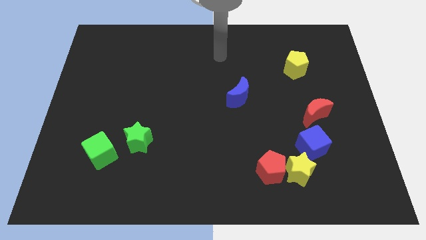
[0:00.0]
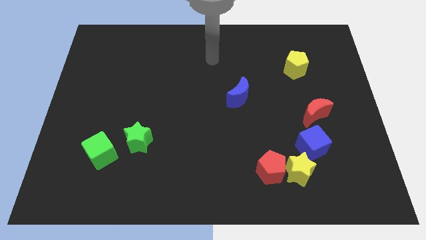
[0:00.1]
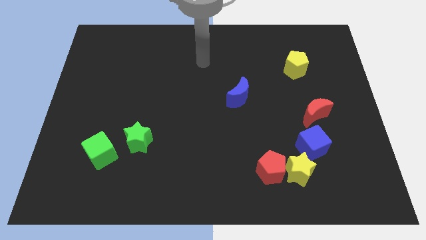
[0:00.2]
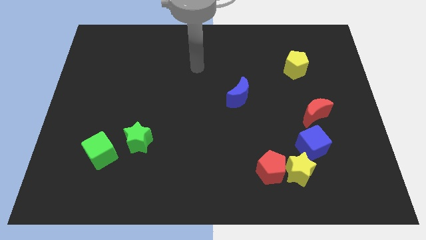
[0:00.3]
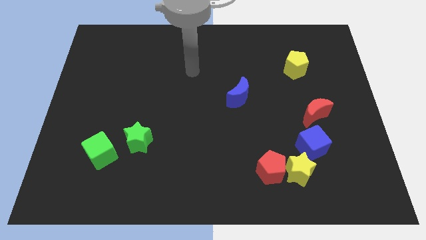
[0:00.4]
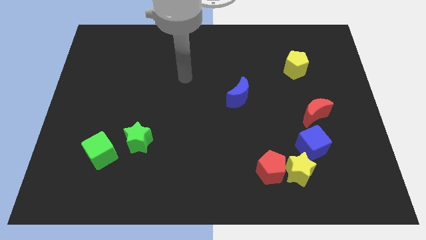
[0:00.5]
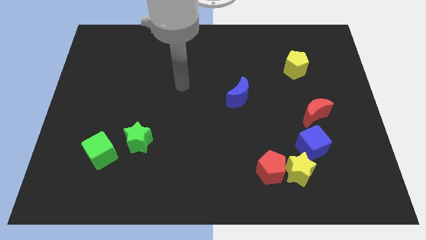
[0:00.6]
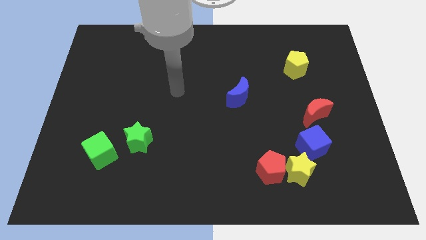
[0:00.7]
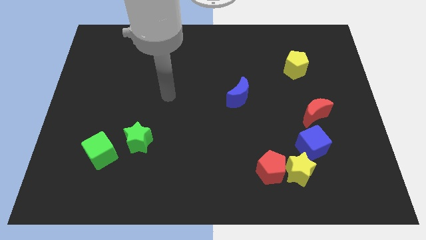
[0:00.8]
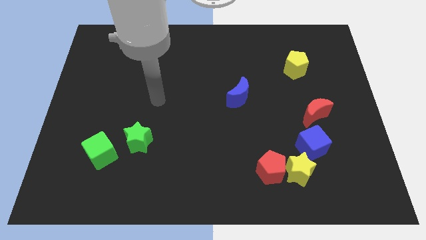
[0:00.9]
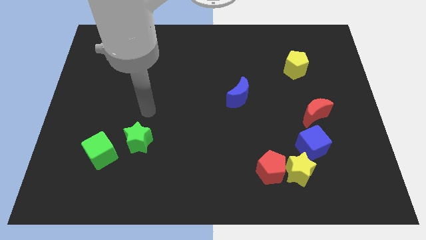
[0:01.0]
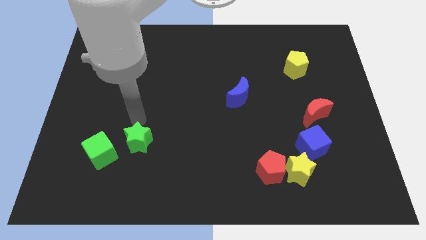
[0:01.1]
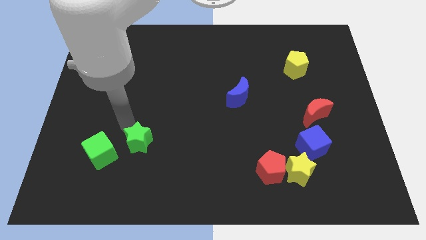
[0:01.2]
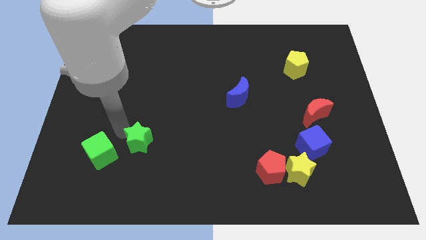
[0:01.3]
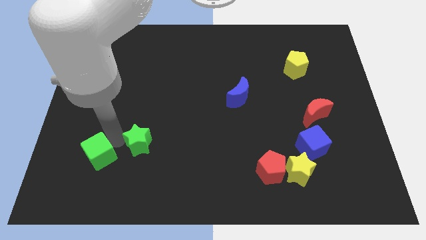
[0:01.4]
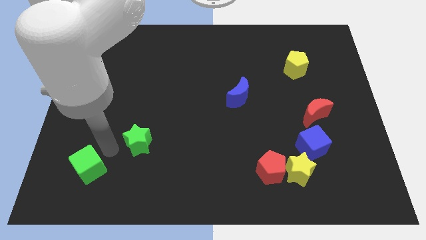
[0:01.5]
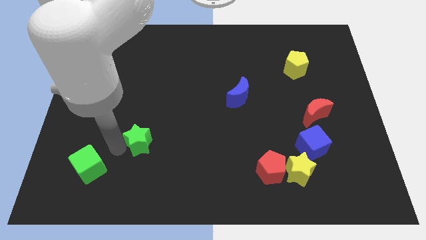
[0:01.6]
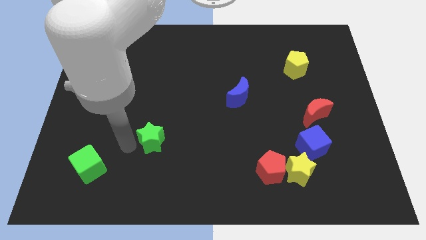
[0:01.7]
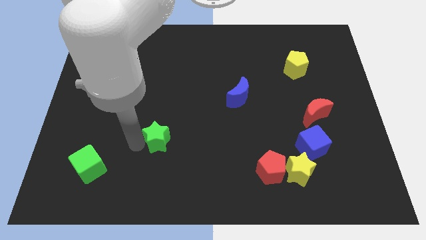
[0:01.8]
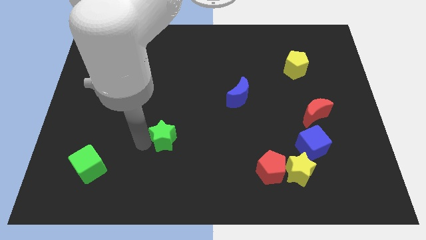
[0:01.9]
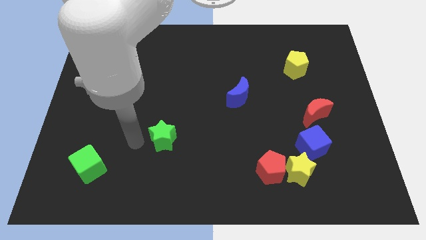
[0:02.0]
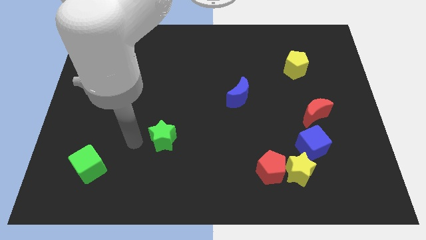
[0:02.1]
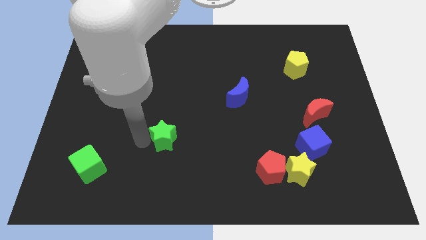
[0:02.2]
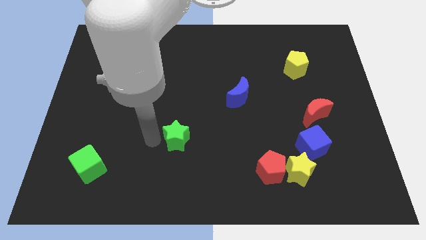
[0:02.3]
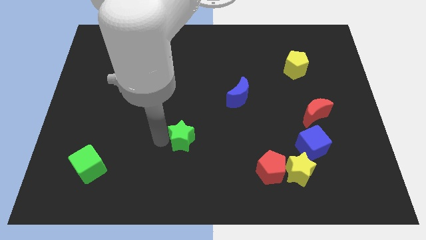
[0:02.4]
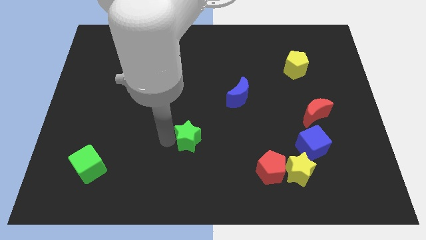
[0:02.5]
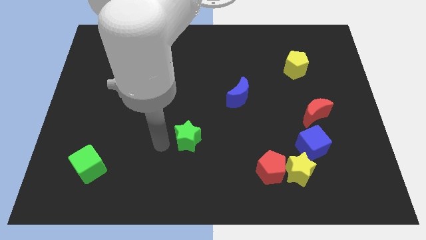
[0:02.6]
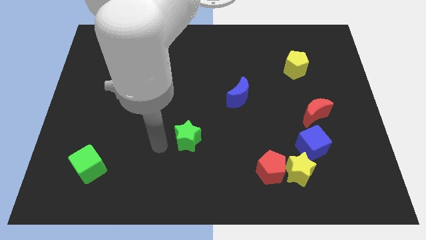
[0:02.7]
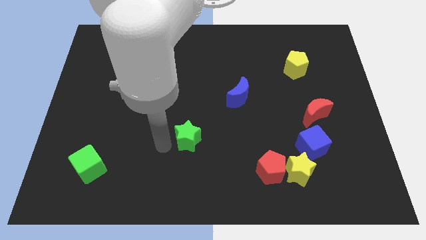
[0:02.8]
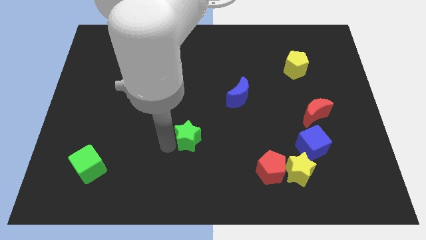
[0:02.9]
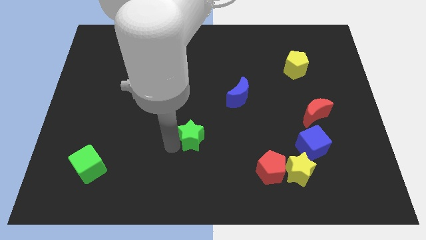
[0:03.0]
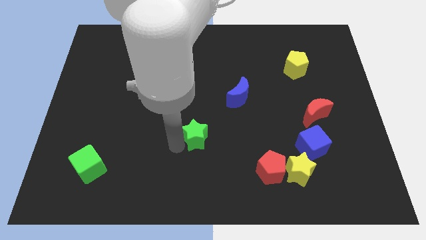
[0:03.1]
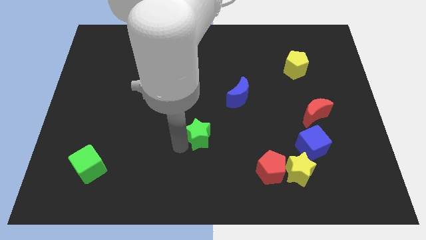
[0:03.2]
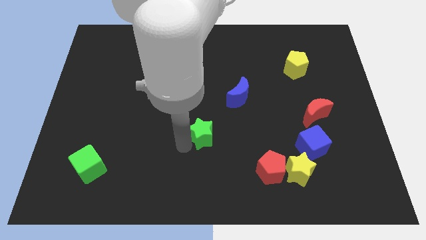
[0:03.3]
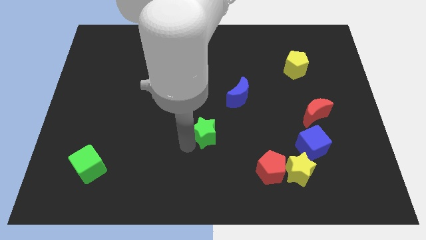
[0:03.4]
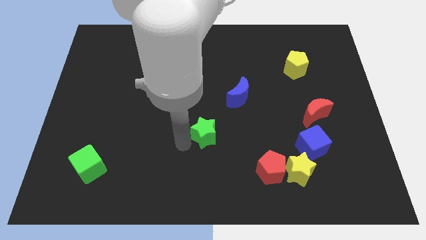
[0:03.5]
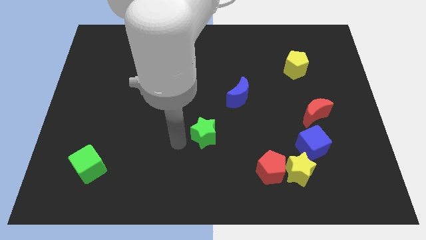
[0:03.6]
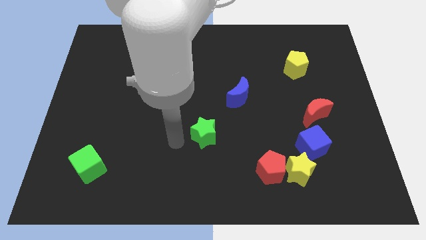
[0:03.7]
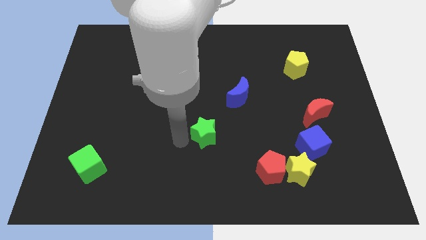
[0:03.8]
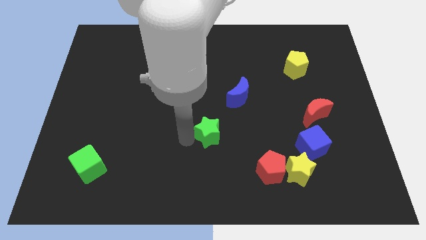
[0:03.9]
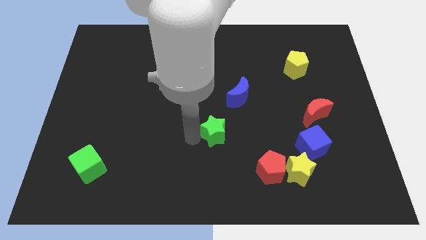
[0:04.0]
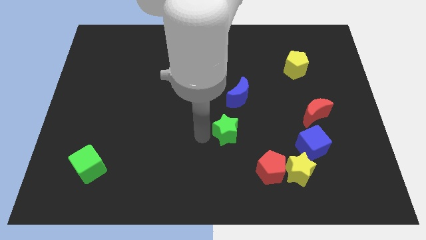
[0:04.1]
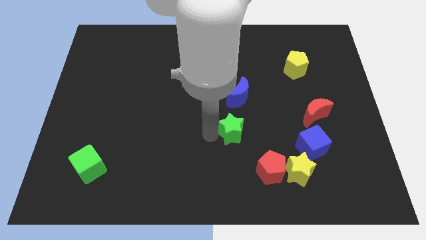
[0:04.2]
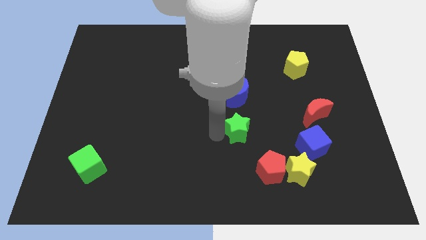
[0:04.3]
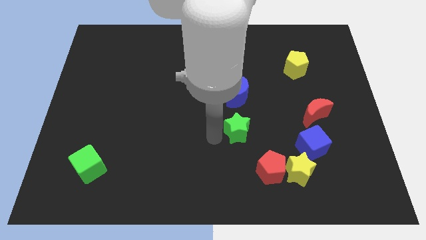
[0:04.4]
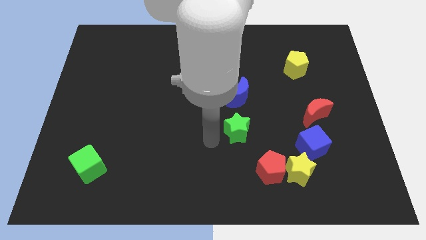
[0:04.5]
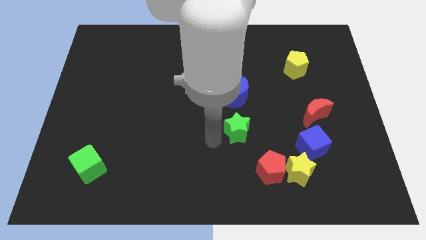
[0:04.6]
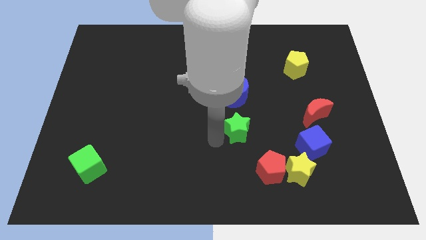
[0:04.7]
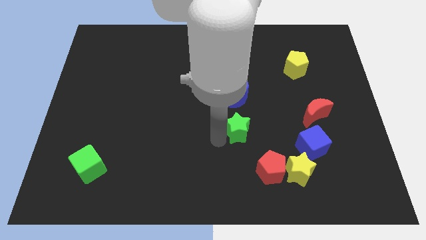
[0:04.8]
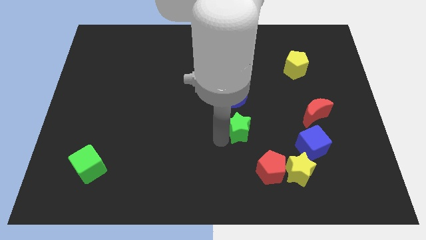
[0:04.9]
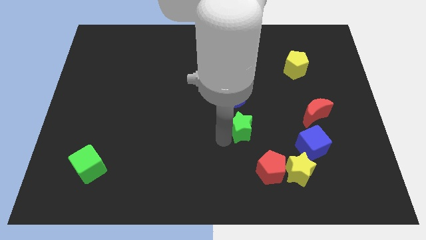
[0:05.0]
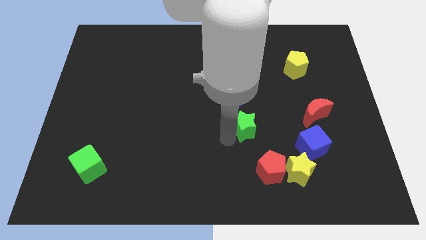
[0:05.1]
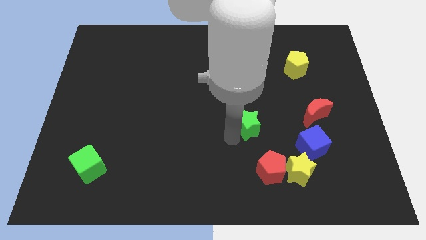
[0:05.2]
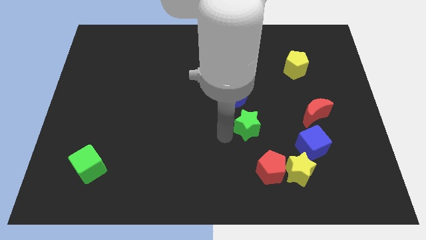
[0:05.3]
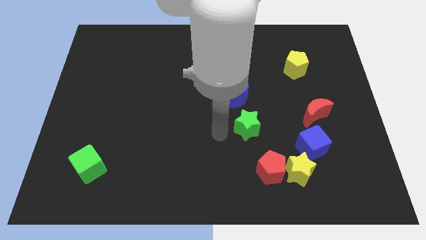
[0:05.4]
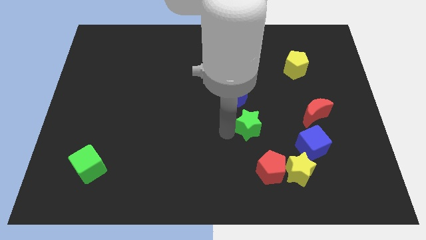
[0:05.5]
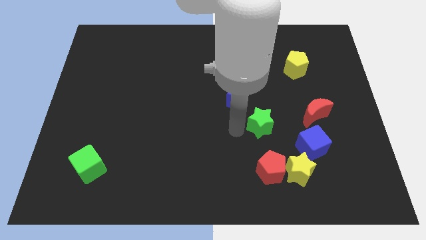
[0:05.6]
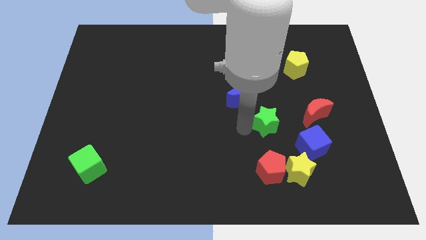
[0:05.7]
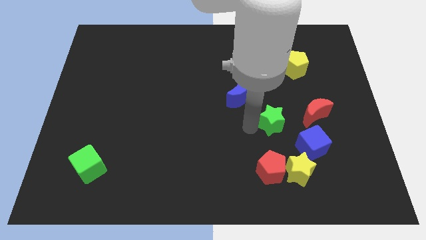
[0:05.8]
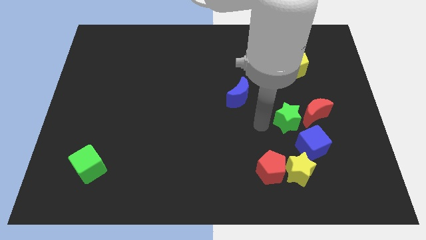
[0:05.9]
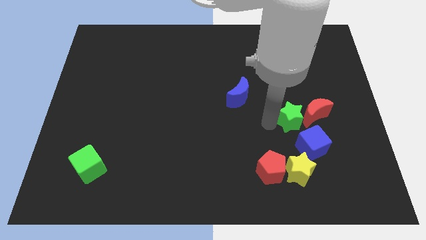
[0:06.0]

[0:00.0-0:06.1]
slide the green star close to the red moon

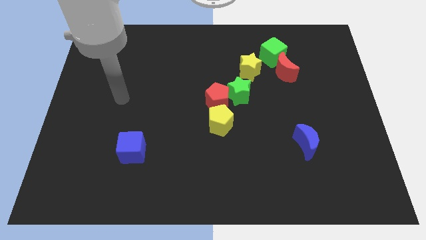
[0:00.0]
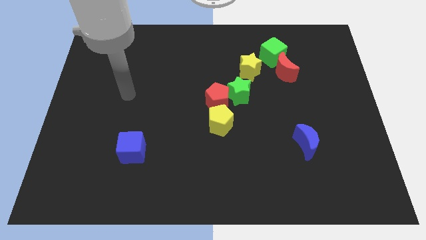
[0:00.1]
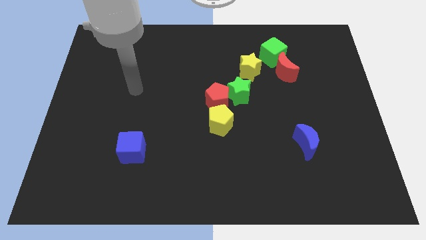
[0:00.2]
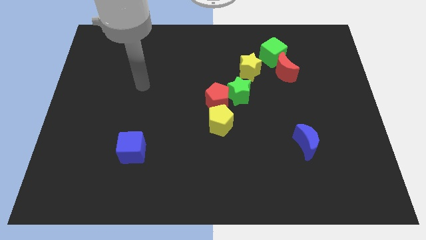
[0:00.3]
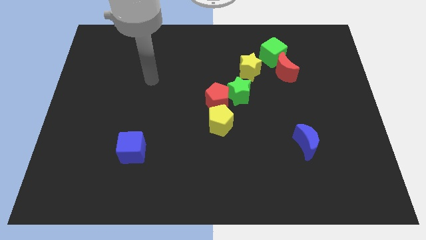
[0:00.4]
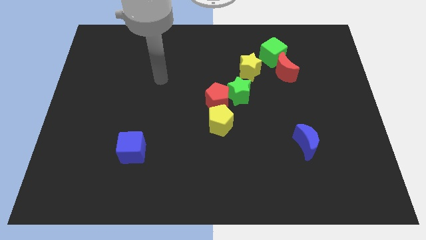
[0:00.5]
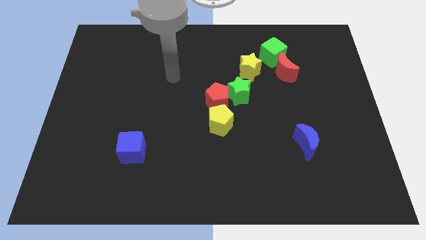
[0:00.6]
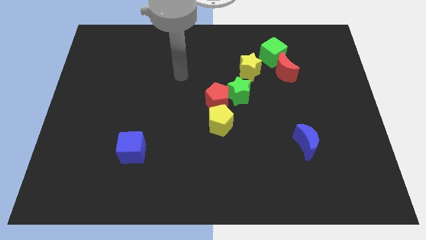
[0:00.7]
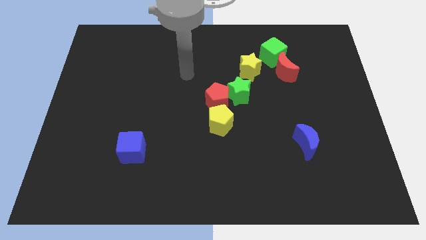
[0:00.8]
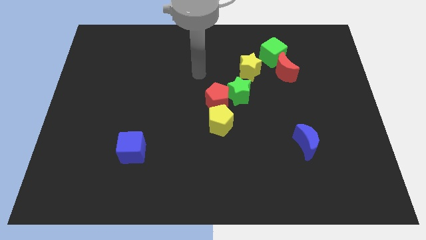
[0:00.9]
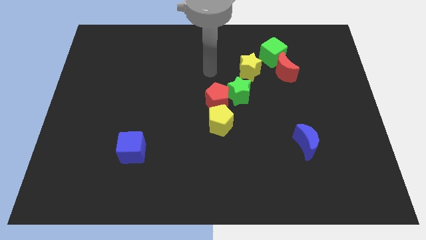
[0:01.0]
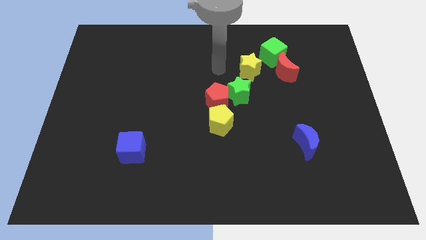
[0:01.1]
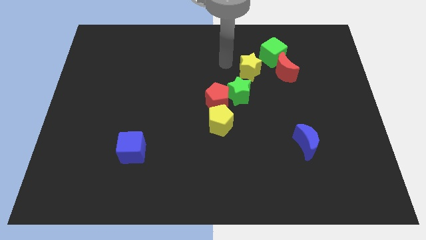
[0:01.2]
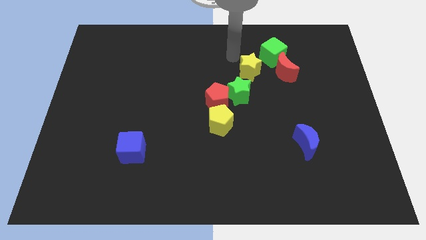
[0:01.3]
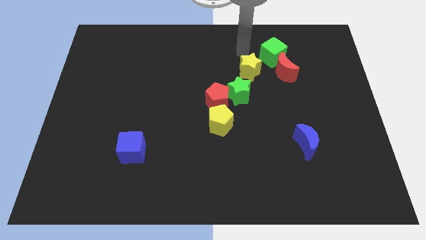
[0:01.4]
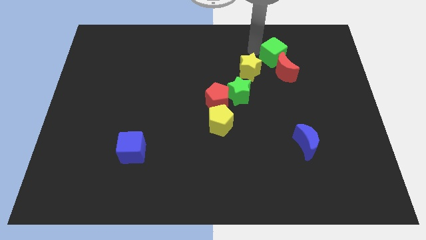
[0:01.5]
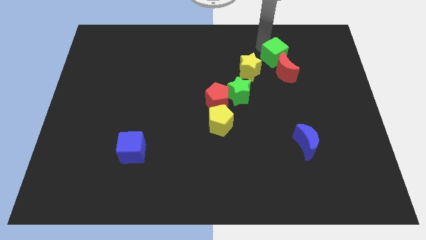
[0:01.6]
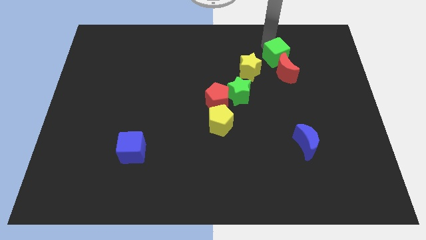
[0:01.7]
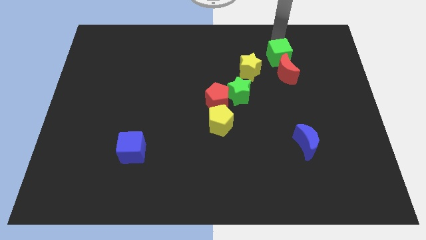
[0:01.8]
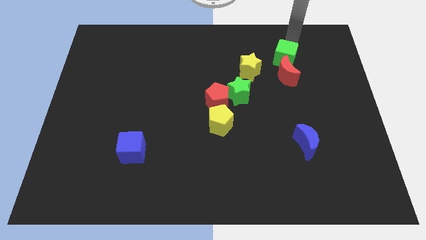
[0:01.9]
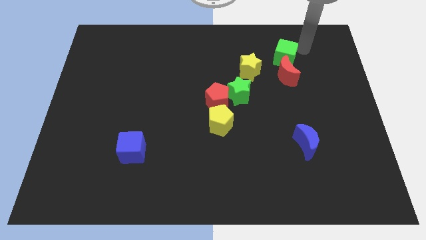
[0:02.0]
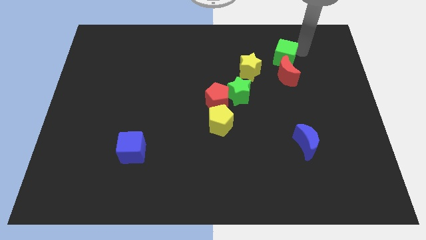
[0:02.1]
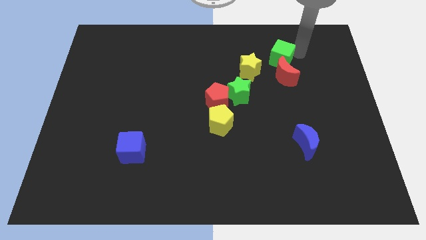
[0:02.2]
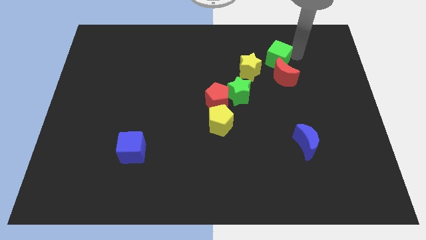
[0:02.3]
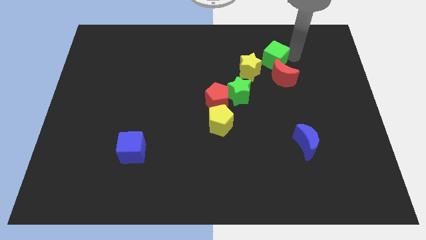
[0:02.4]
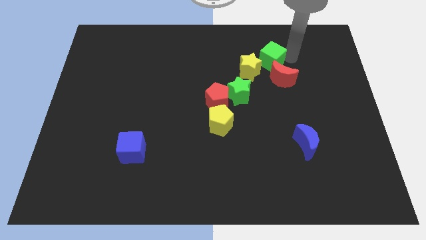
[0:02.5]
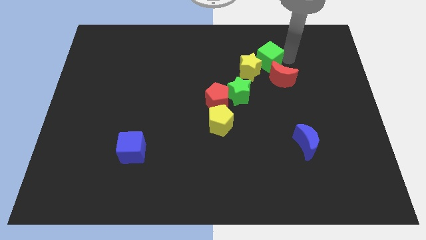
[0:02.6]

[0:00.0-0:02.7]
push the green cube towards the yellow star
